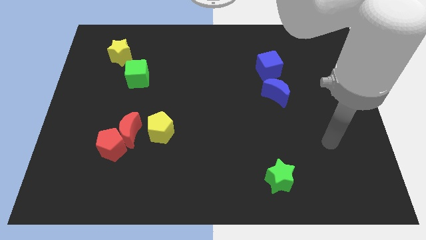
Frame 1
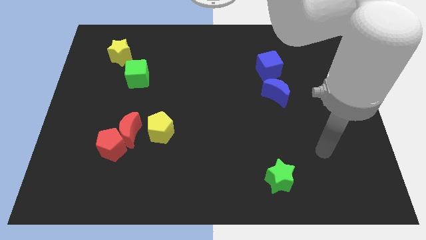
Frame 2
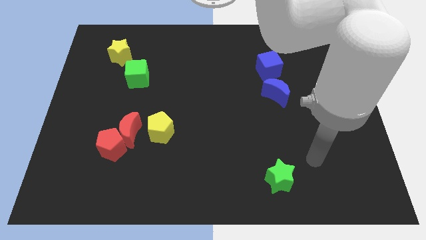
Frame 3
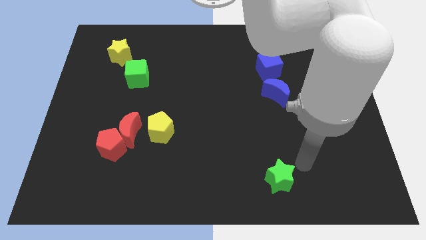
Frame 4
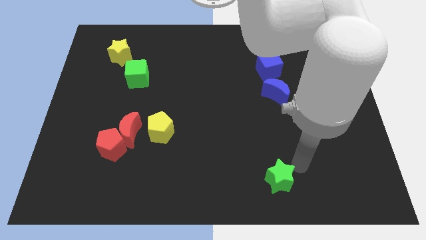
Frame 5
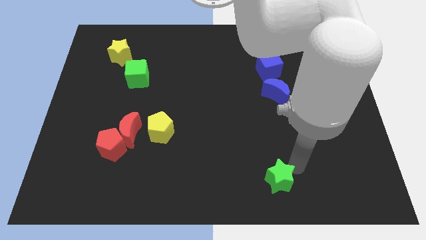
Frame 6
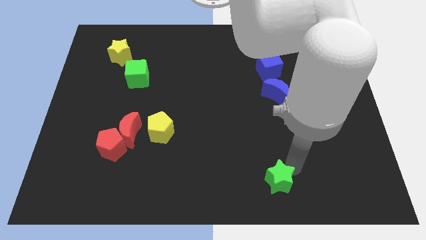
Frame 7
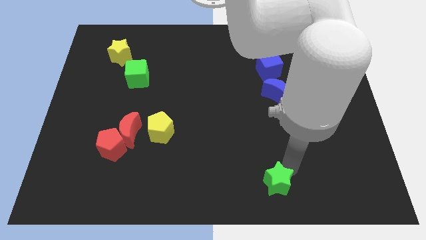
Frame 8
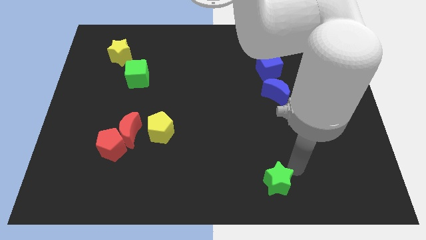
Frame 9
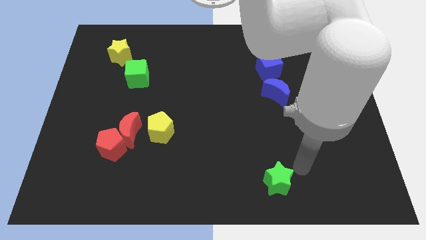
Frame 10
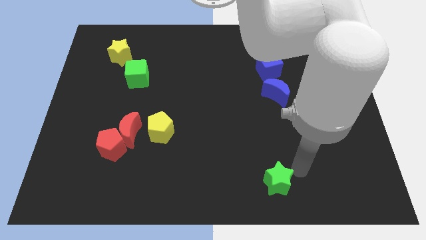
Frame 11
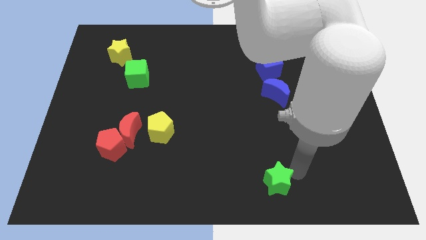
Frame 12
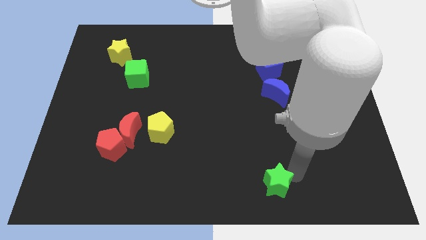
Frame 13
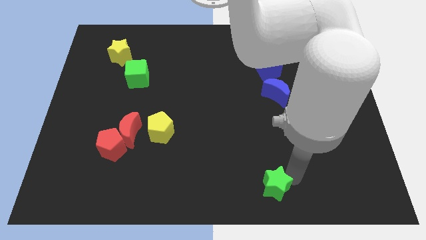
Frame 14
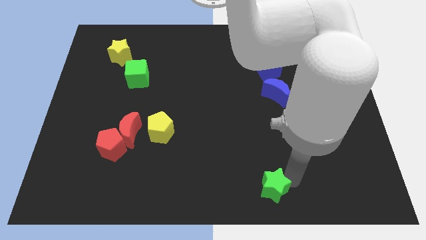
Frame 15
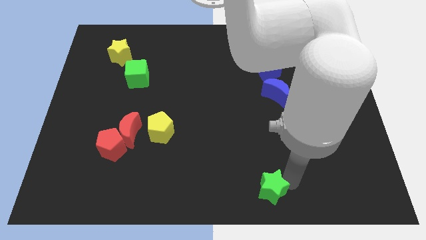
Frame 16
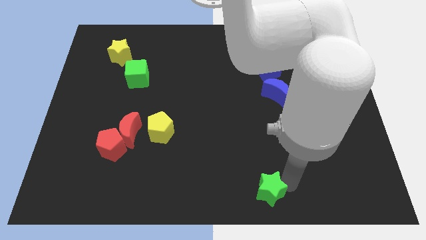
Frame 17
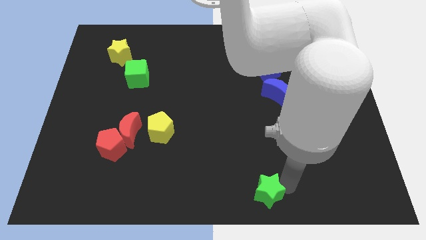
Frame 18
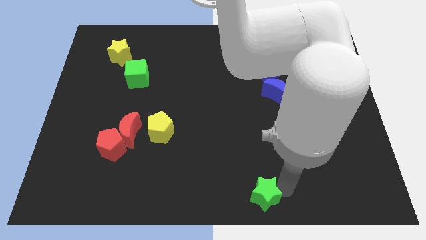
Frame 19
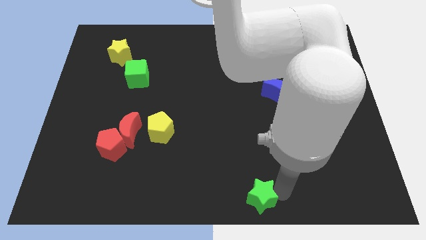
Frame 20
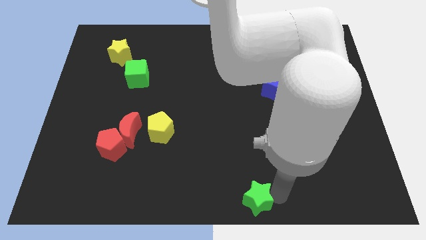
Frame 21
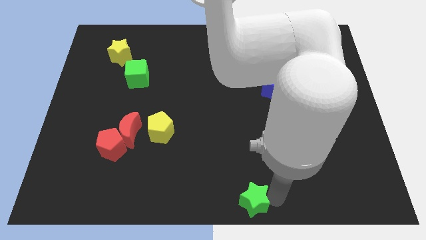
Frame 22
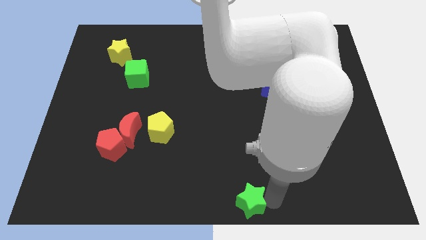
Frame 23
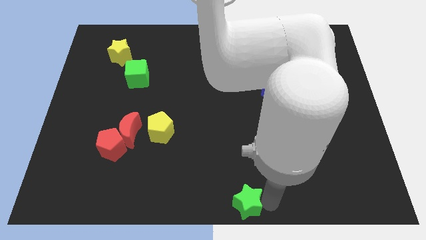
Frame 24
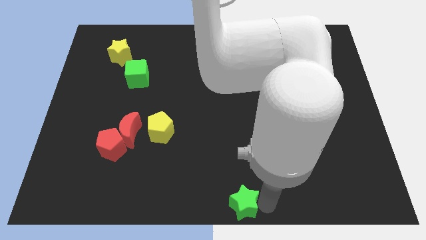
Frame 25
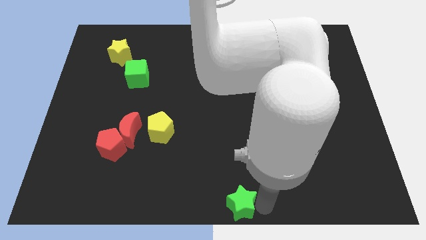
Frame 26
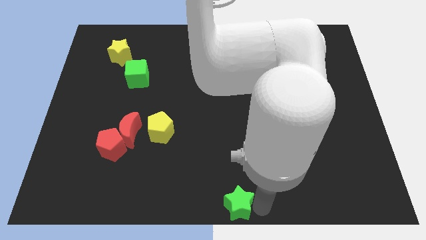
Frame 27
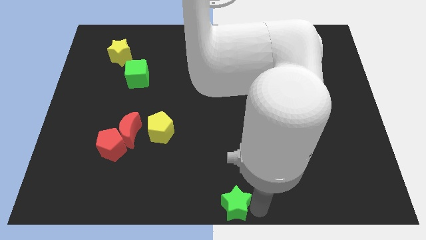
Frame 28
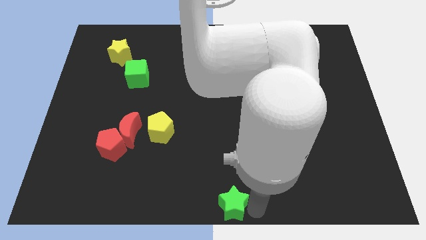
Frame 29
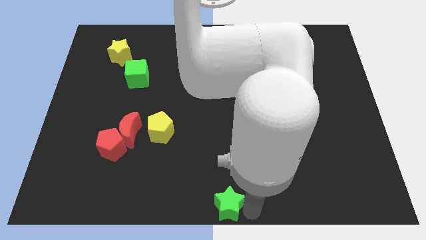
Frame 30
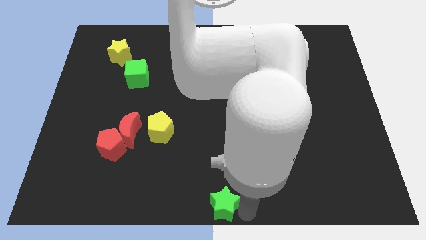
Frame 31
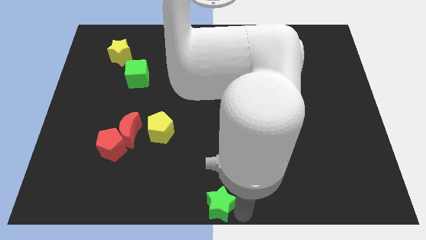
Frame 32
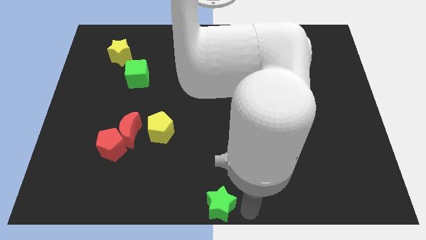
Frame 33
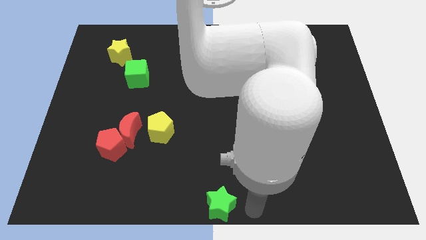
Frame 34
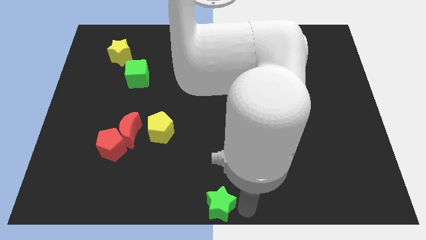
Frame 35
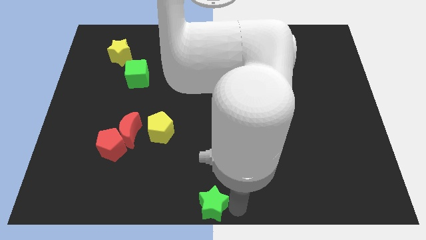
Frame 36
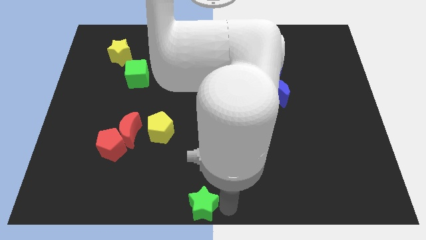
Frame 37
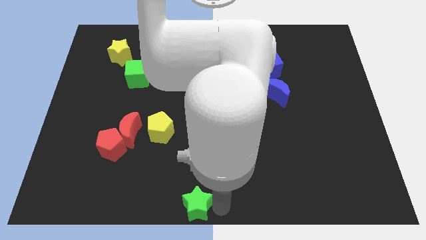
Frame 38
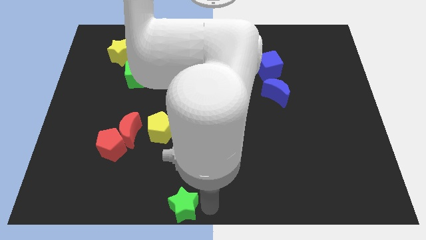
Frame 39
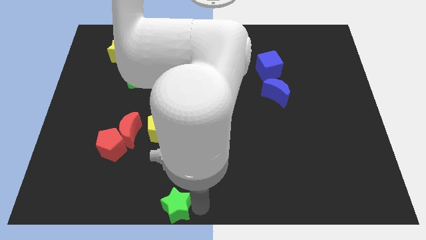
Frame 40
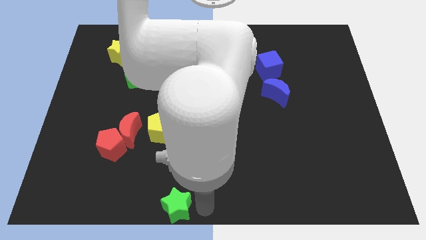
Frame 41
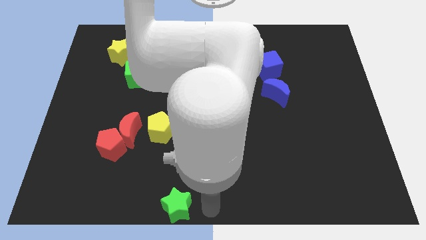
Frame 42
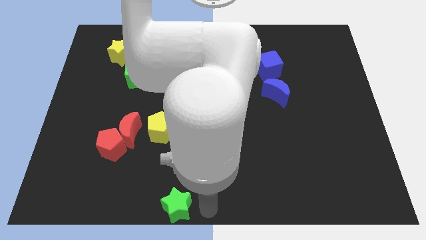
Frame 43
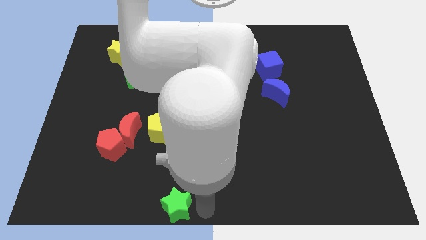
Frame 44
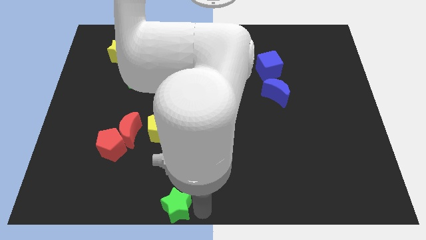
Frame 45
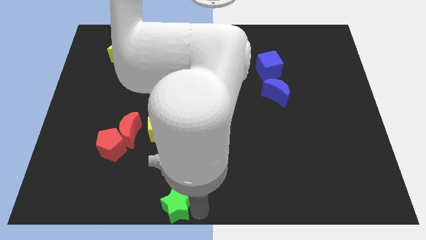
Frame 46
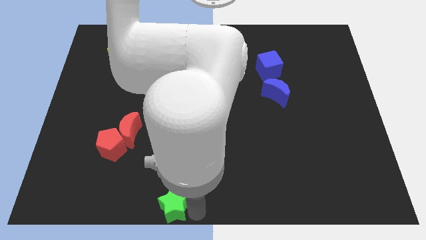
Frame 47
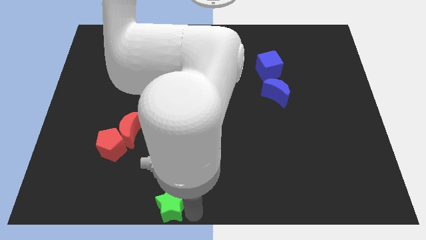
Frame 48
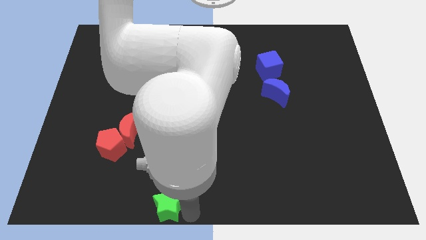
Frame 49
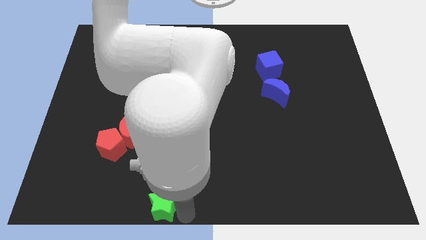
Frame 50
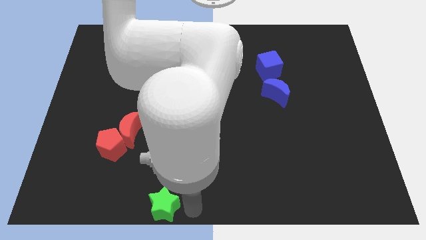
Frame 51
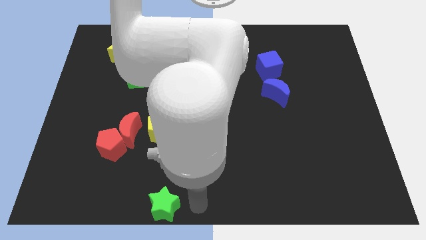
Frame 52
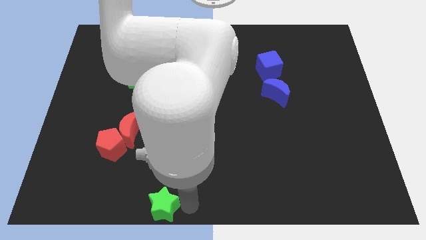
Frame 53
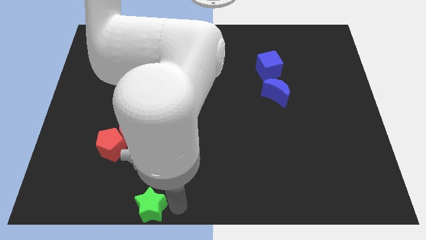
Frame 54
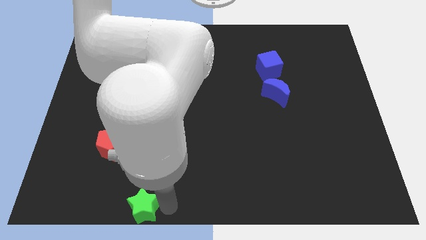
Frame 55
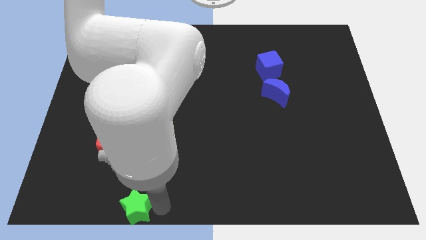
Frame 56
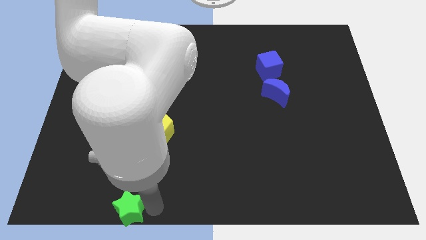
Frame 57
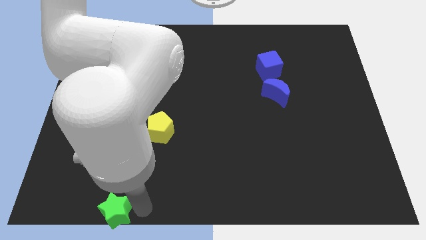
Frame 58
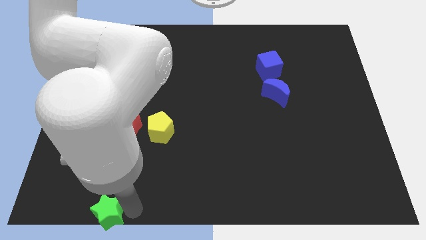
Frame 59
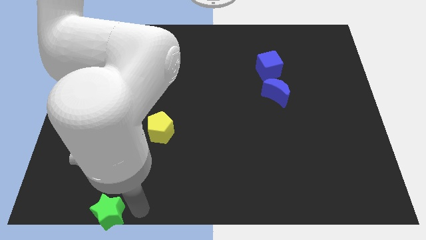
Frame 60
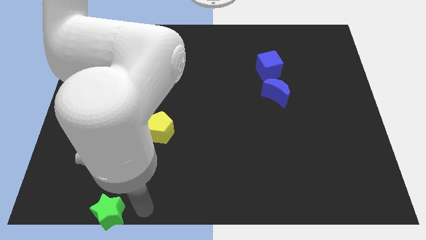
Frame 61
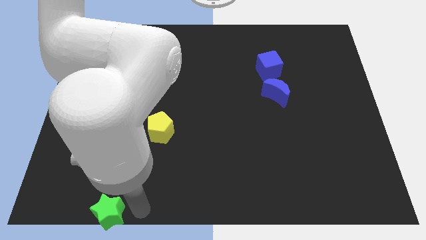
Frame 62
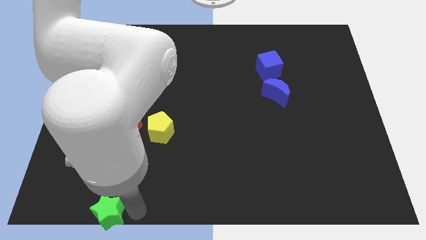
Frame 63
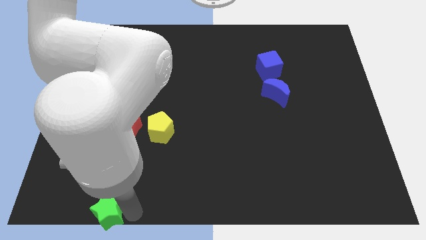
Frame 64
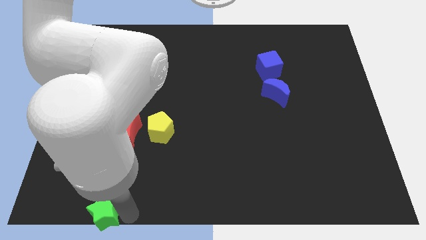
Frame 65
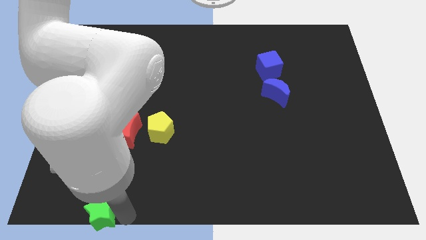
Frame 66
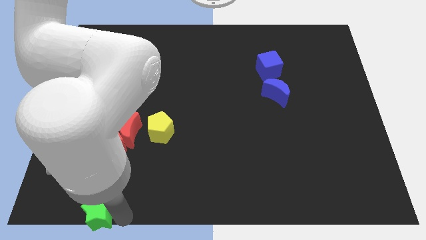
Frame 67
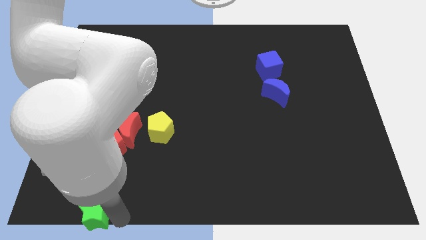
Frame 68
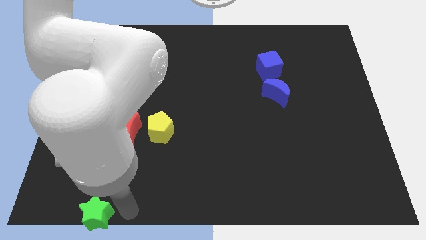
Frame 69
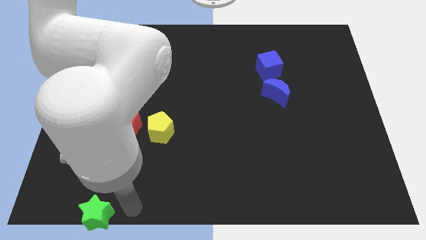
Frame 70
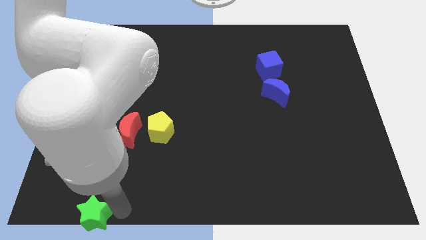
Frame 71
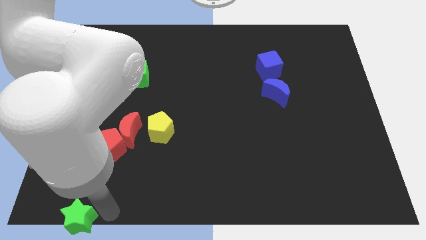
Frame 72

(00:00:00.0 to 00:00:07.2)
move the green star to the lower left corner
